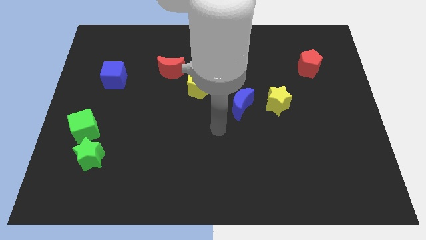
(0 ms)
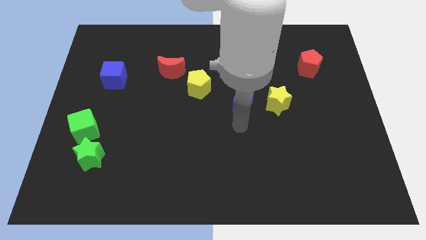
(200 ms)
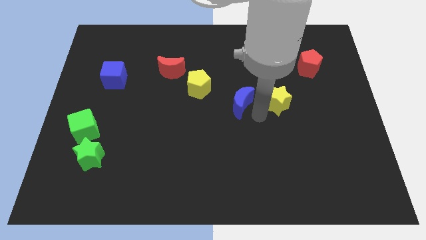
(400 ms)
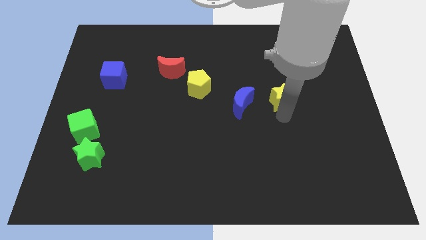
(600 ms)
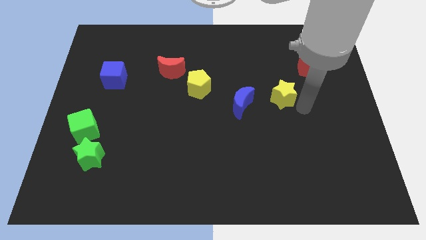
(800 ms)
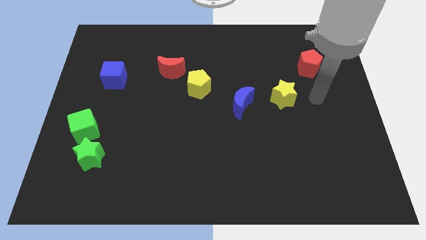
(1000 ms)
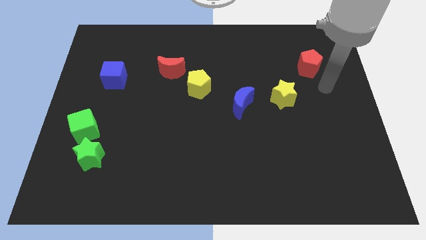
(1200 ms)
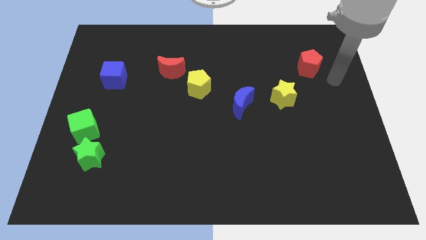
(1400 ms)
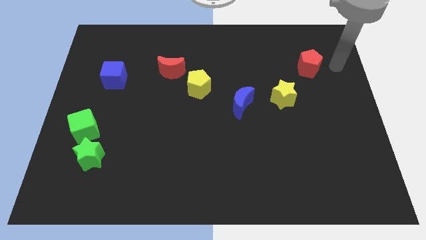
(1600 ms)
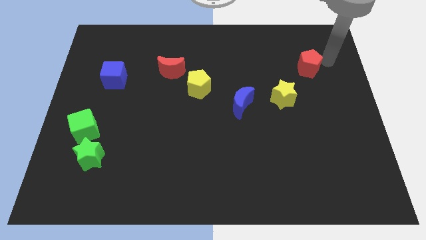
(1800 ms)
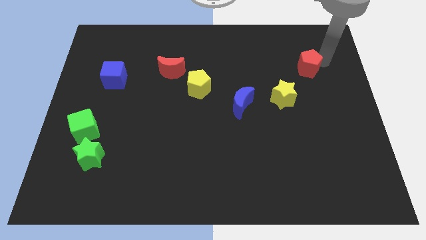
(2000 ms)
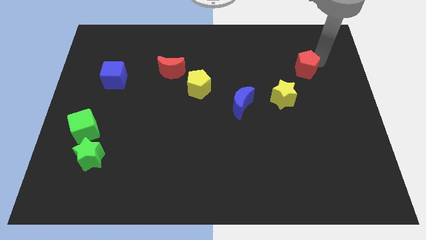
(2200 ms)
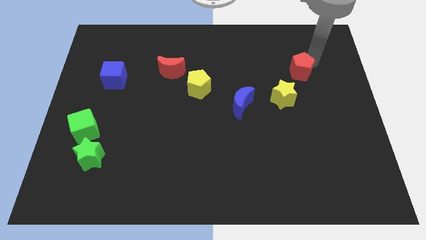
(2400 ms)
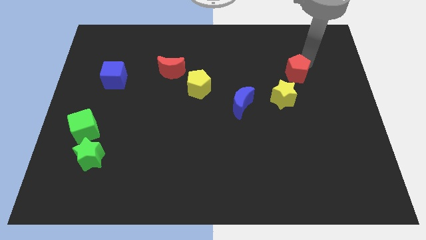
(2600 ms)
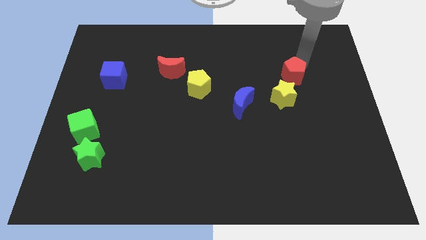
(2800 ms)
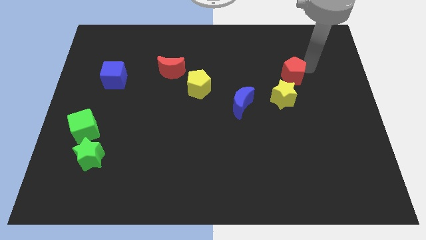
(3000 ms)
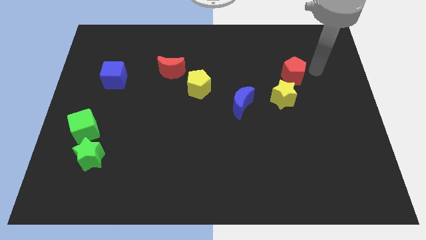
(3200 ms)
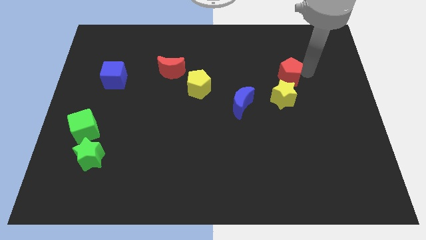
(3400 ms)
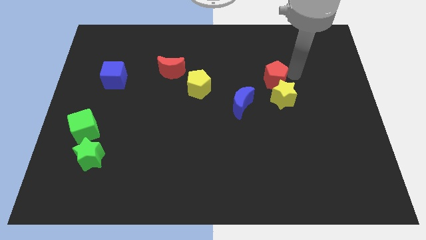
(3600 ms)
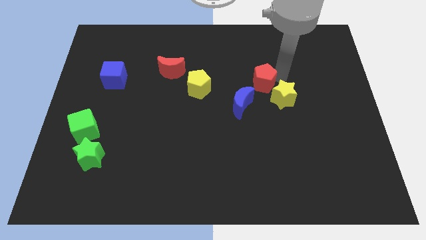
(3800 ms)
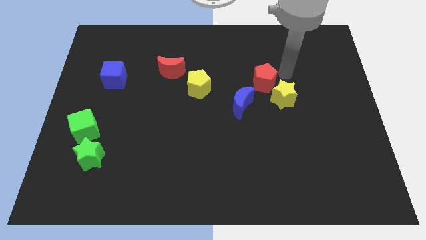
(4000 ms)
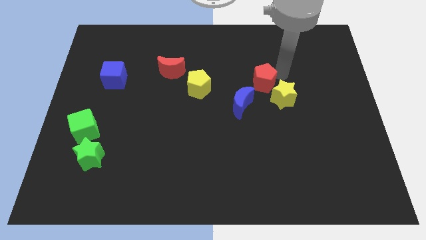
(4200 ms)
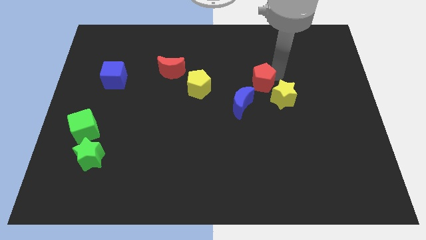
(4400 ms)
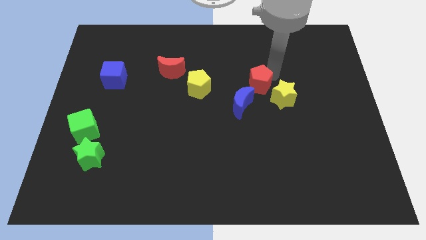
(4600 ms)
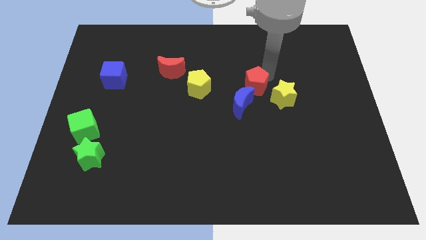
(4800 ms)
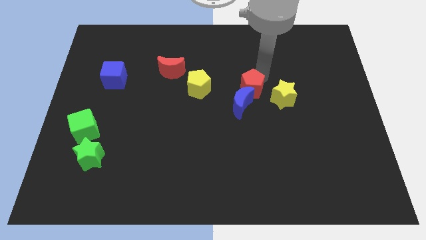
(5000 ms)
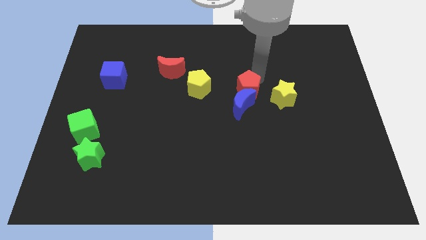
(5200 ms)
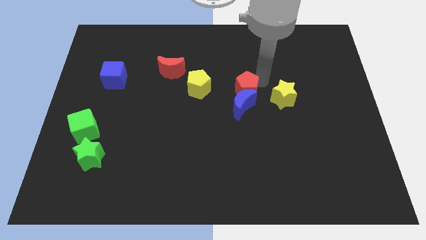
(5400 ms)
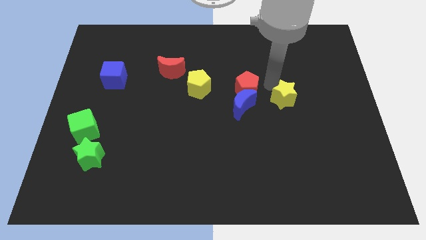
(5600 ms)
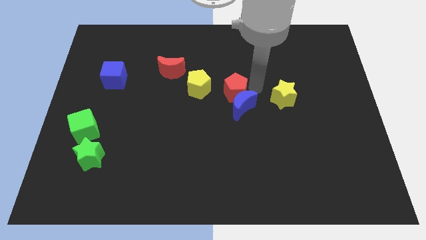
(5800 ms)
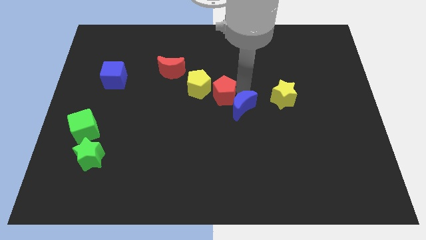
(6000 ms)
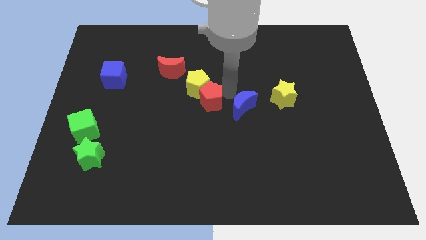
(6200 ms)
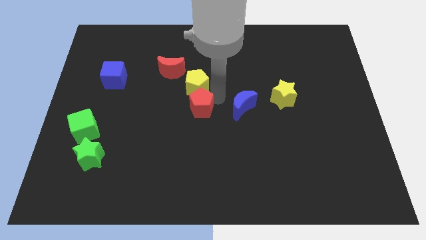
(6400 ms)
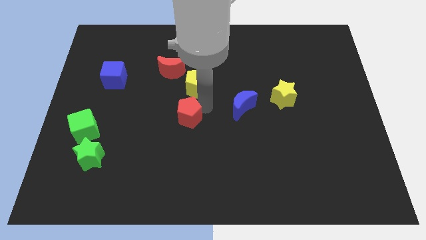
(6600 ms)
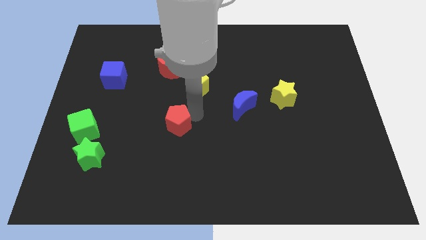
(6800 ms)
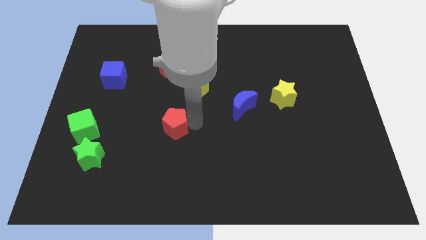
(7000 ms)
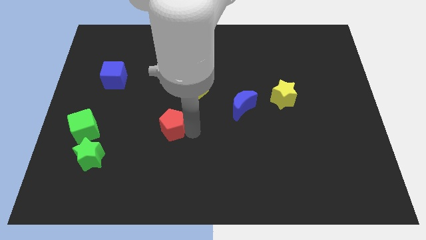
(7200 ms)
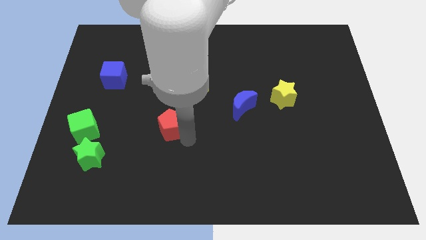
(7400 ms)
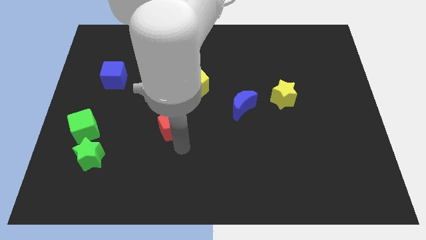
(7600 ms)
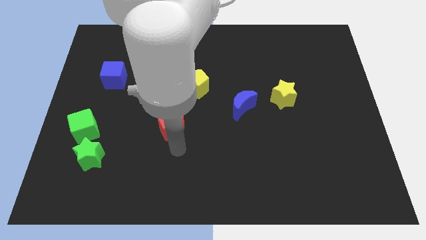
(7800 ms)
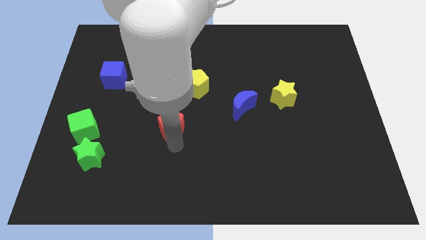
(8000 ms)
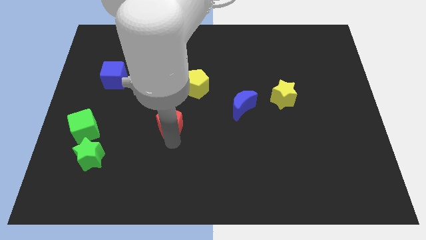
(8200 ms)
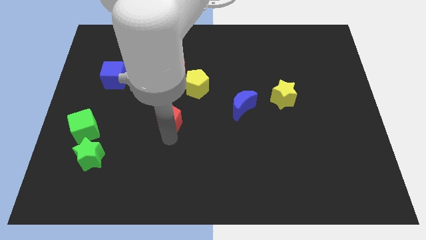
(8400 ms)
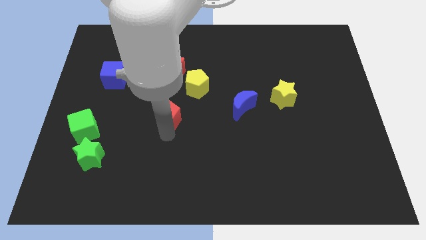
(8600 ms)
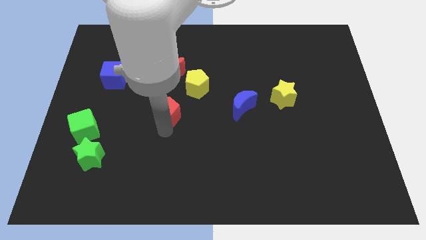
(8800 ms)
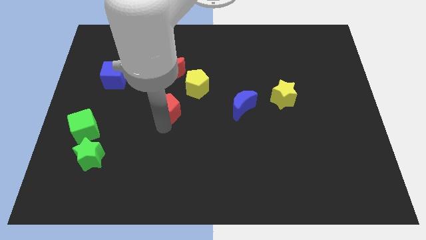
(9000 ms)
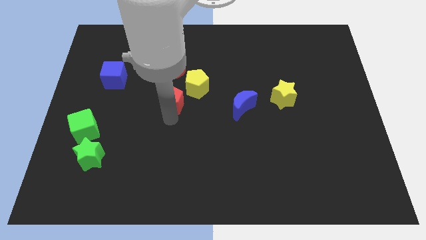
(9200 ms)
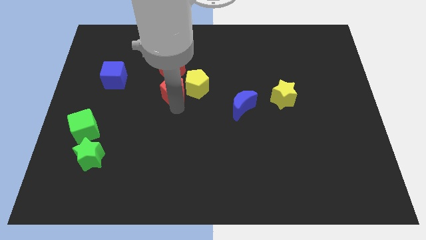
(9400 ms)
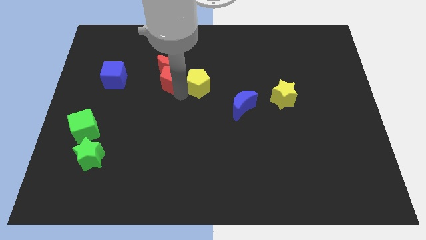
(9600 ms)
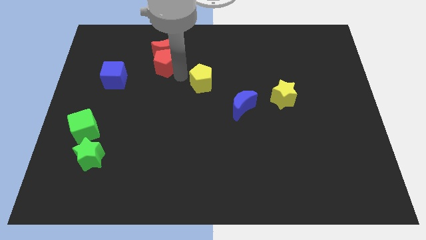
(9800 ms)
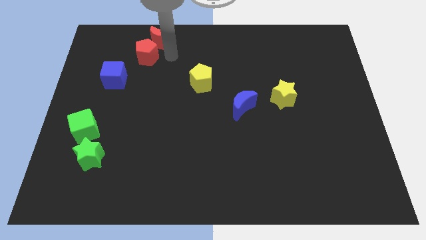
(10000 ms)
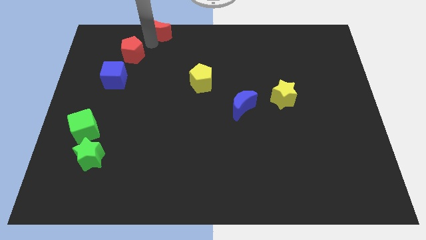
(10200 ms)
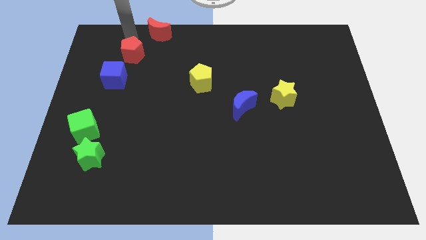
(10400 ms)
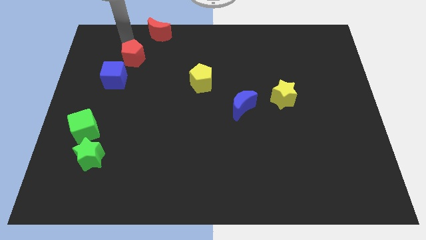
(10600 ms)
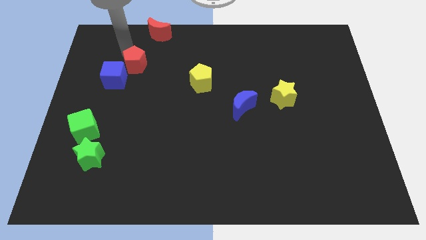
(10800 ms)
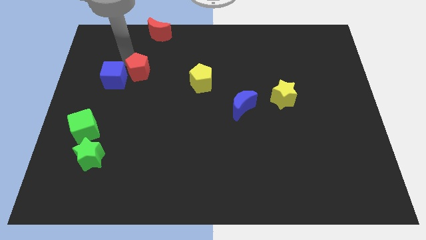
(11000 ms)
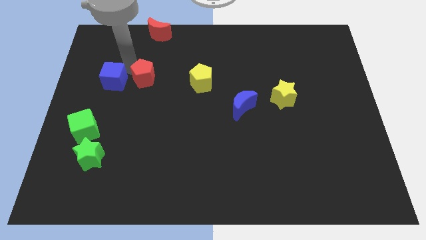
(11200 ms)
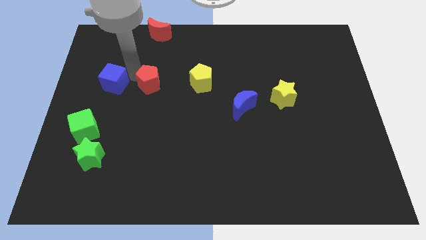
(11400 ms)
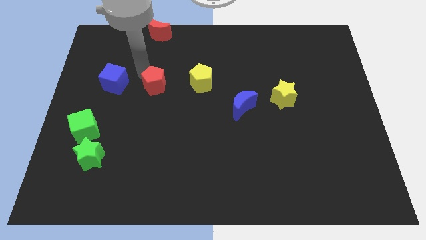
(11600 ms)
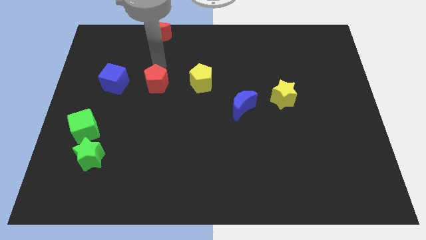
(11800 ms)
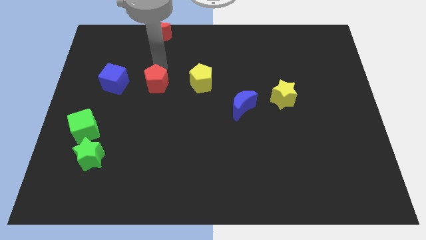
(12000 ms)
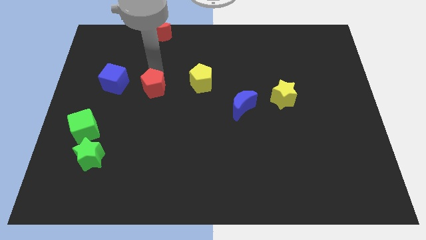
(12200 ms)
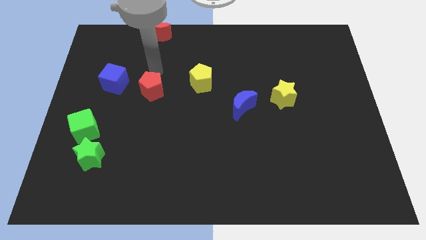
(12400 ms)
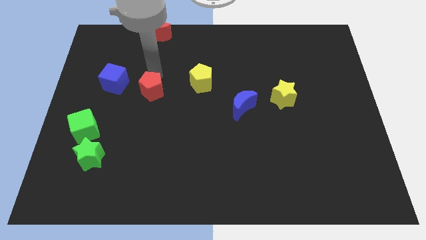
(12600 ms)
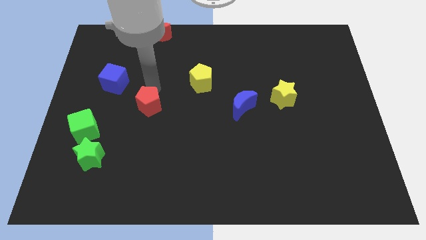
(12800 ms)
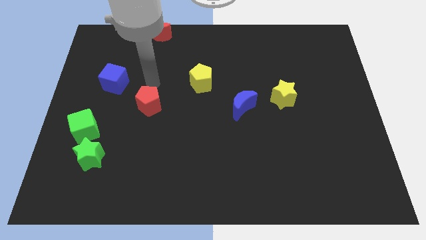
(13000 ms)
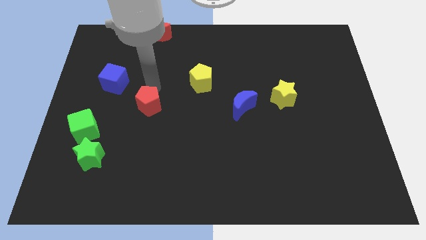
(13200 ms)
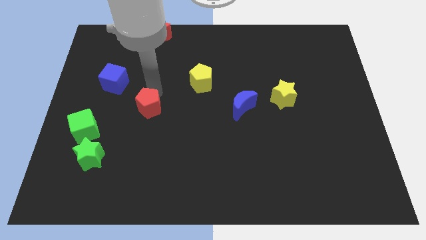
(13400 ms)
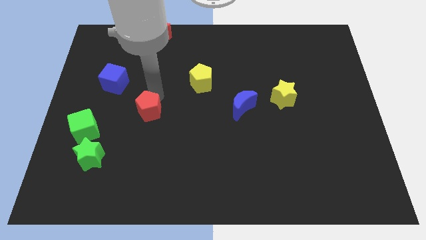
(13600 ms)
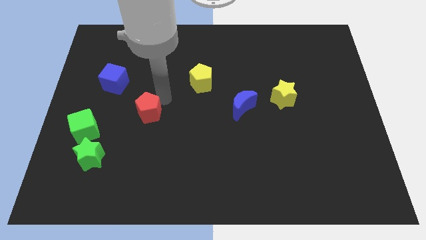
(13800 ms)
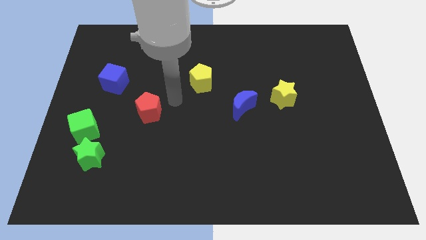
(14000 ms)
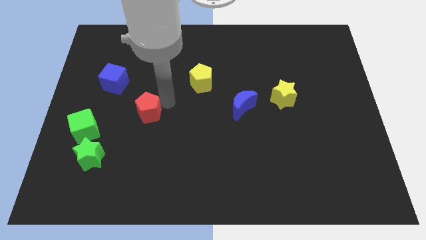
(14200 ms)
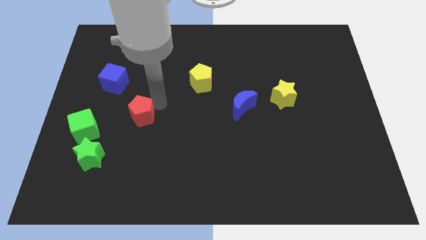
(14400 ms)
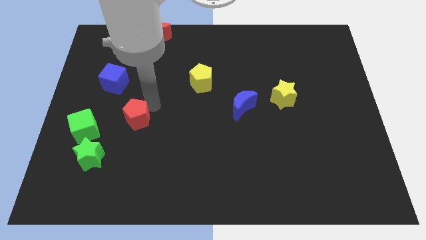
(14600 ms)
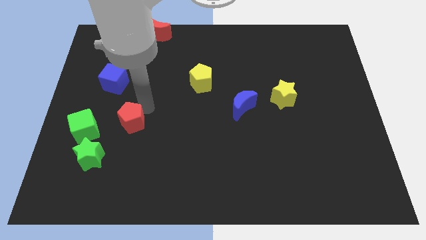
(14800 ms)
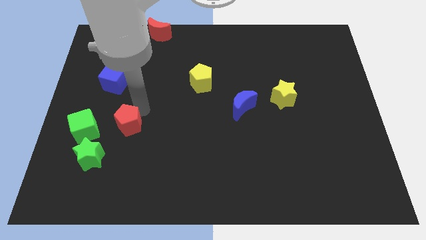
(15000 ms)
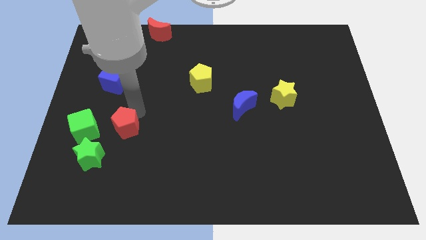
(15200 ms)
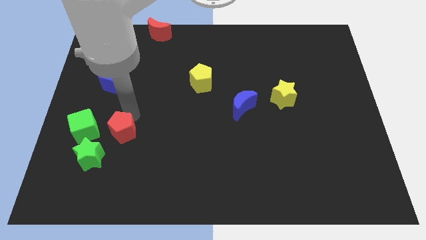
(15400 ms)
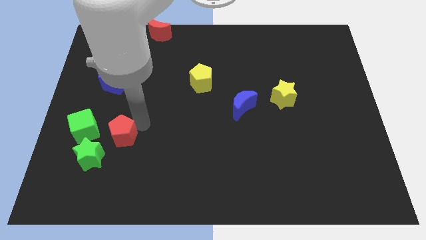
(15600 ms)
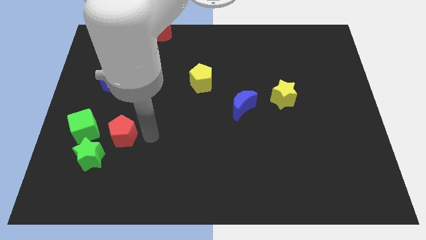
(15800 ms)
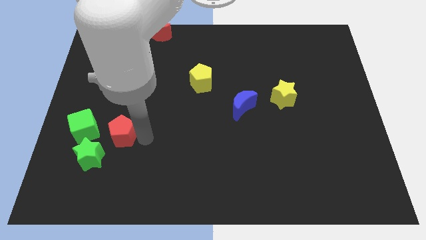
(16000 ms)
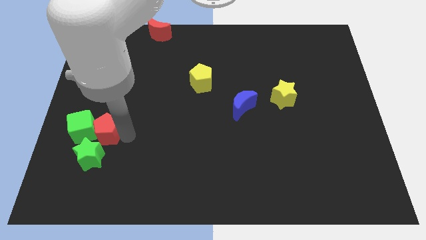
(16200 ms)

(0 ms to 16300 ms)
push the red pentagon towards the green cube
